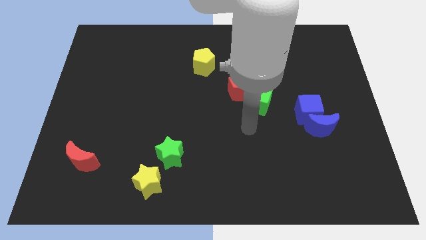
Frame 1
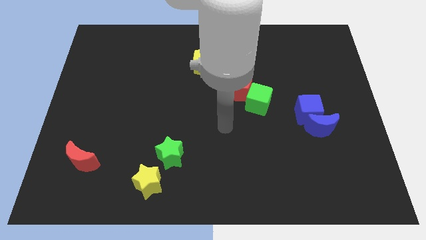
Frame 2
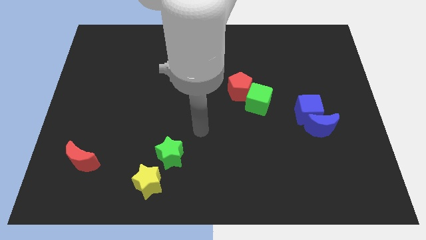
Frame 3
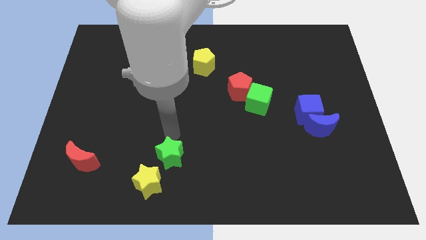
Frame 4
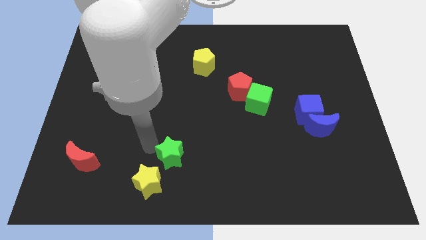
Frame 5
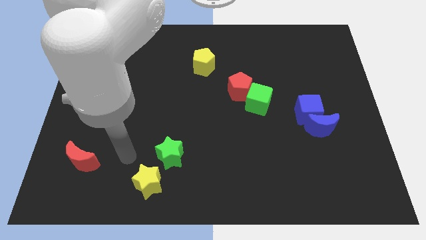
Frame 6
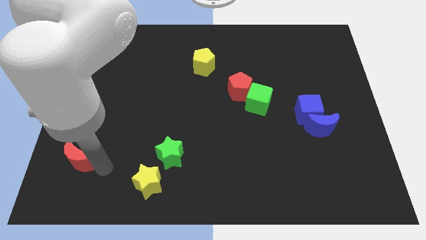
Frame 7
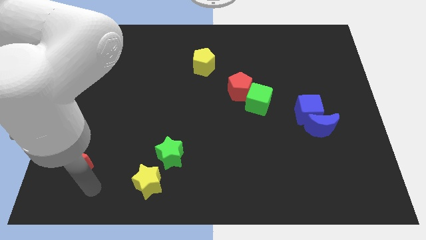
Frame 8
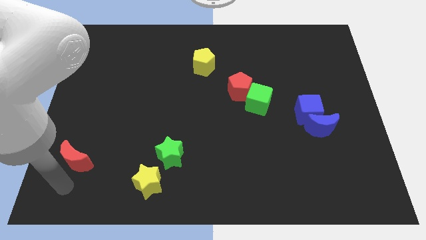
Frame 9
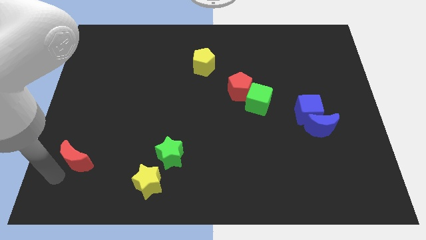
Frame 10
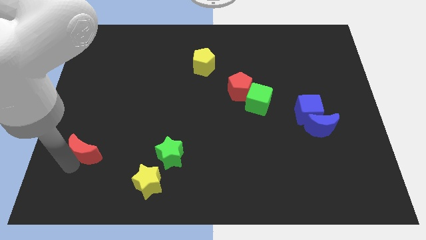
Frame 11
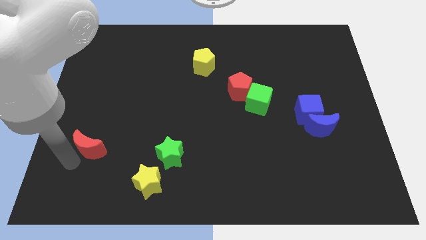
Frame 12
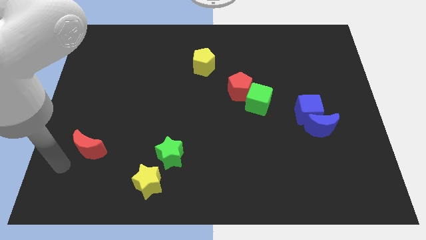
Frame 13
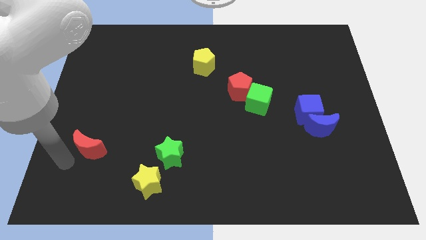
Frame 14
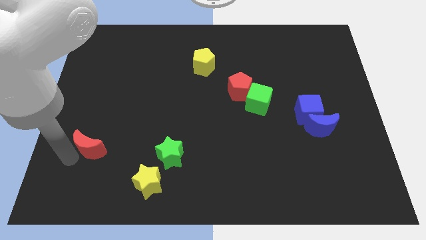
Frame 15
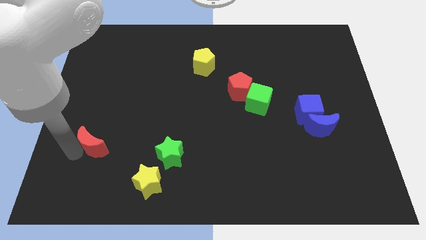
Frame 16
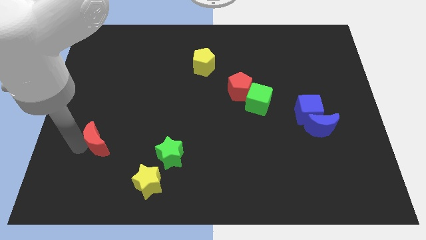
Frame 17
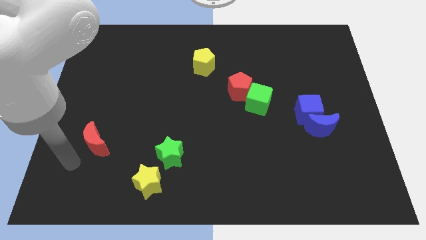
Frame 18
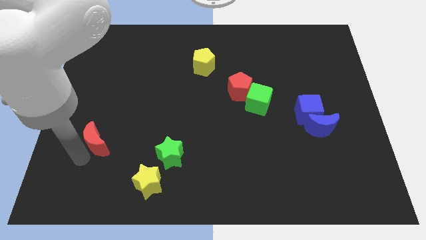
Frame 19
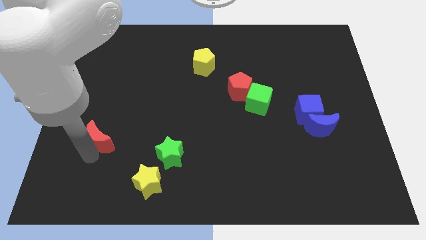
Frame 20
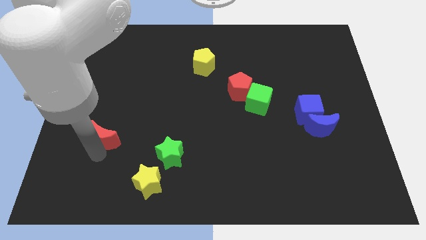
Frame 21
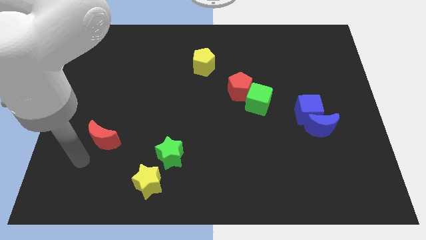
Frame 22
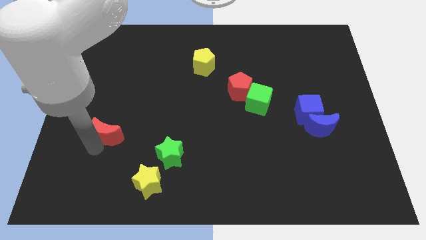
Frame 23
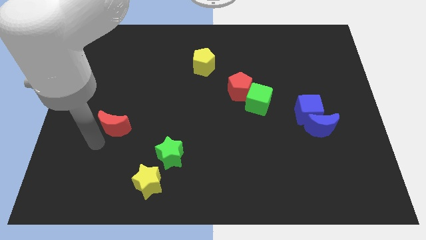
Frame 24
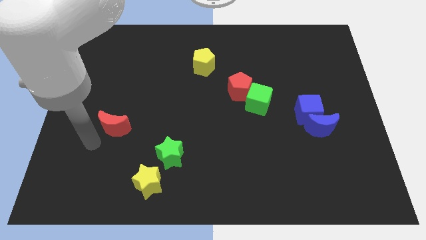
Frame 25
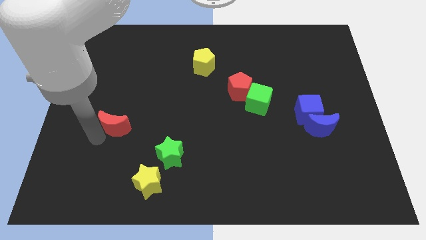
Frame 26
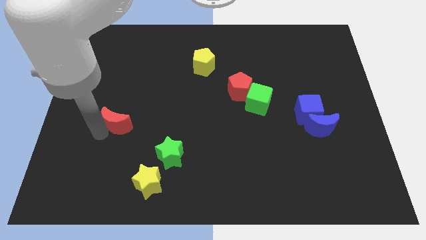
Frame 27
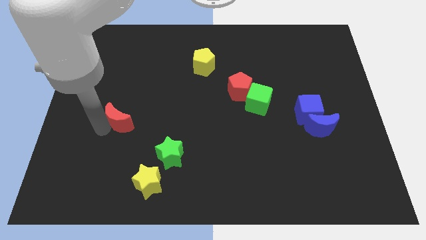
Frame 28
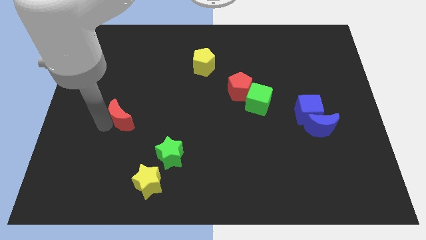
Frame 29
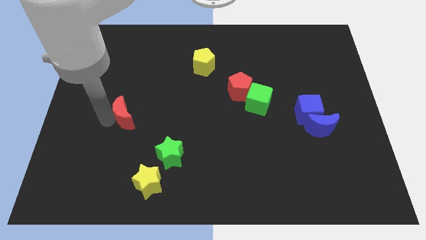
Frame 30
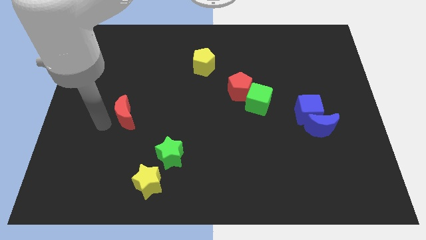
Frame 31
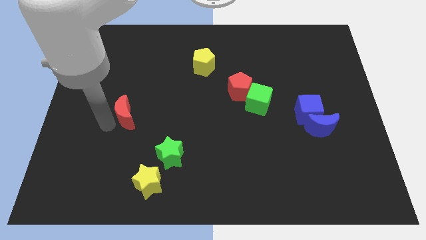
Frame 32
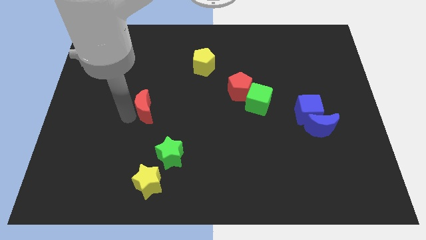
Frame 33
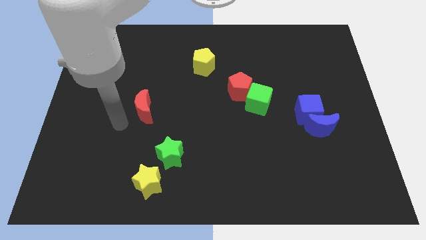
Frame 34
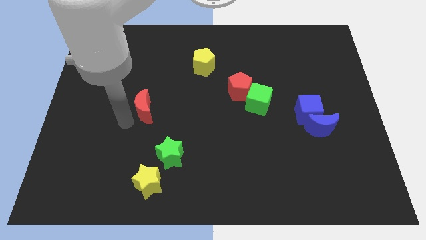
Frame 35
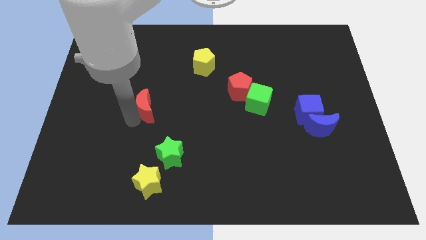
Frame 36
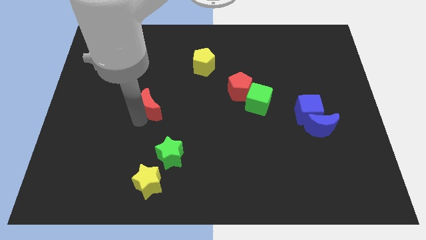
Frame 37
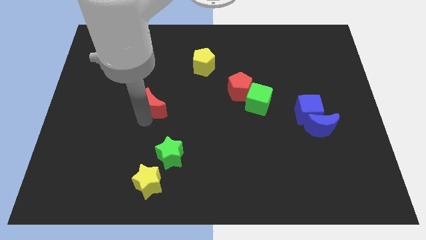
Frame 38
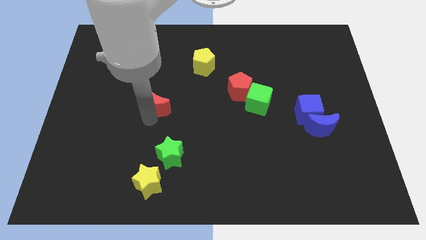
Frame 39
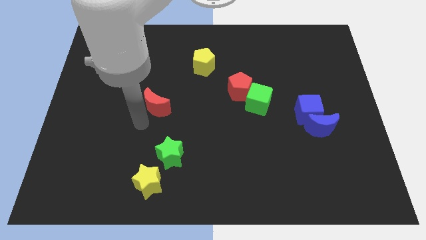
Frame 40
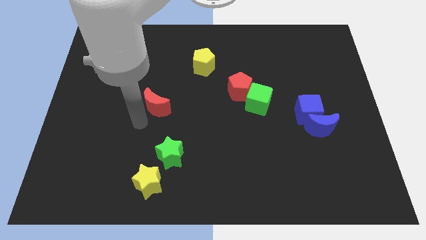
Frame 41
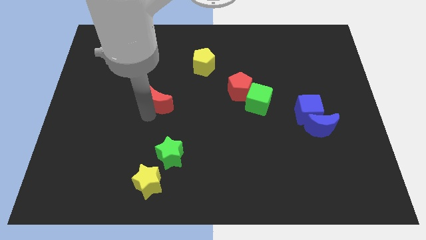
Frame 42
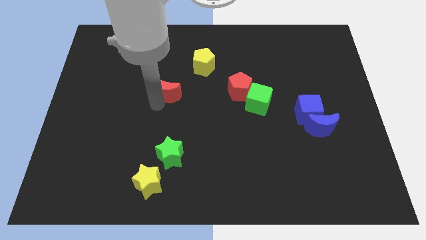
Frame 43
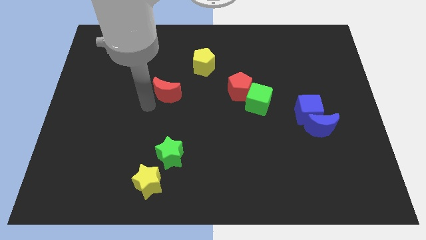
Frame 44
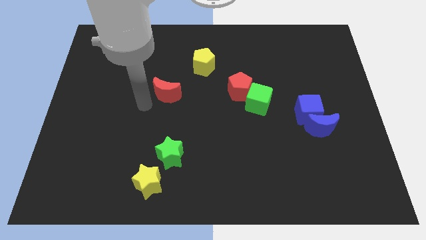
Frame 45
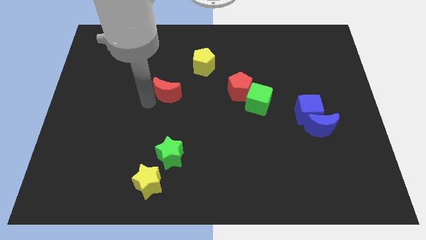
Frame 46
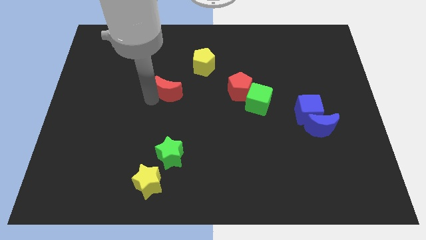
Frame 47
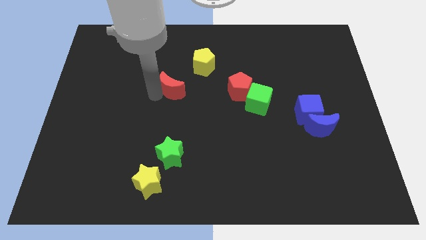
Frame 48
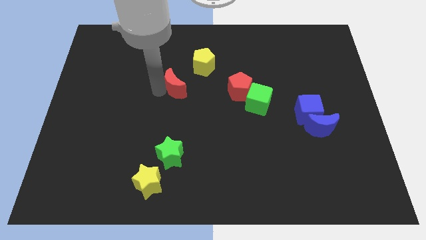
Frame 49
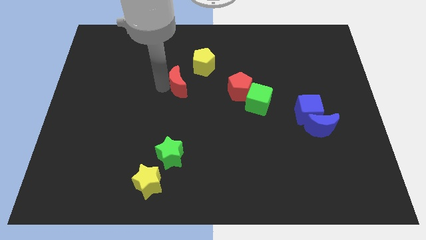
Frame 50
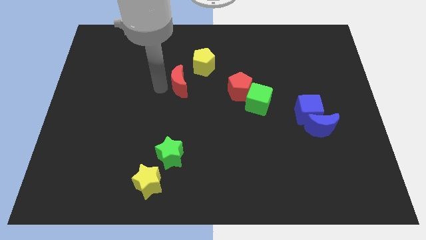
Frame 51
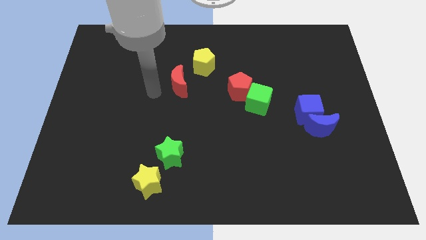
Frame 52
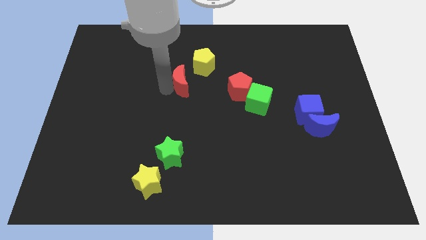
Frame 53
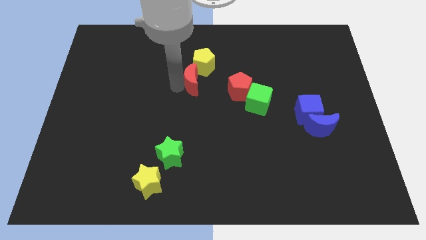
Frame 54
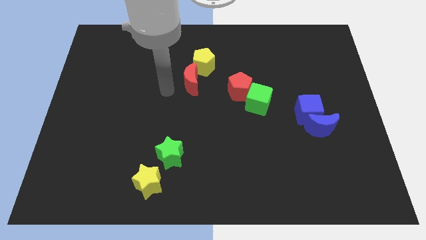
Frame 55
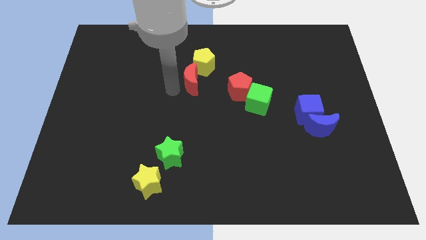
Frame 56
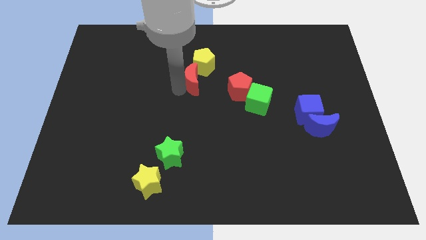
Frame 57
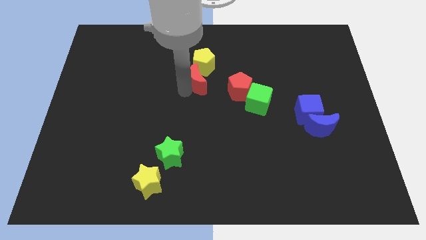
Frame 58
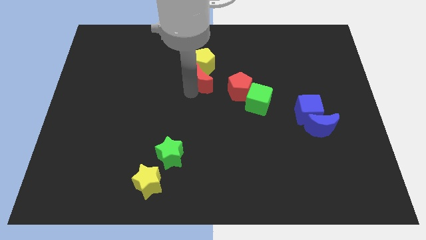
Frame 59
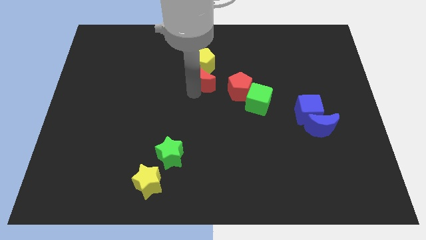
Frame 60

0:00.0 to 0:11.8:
push the red moon to the top left of the red pentagon
